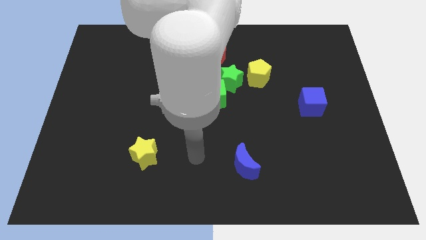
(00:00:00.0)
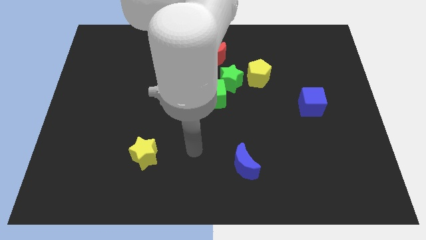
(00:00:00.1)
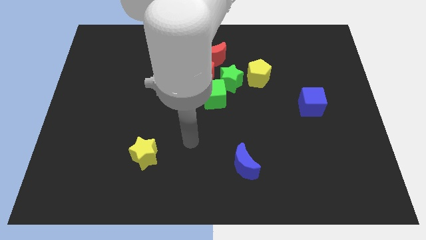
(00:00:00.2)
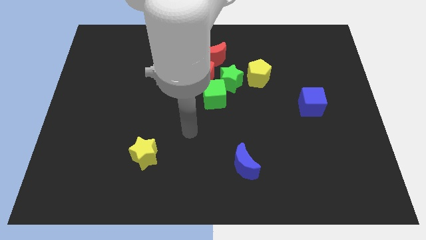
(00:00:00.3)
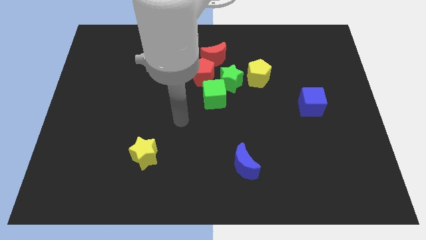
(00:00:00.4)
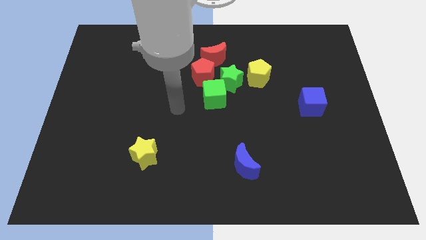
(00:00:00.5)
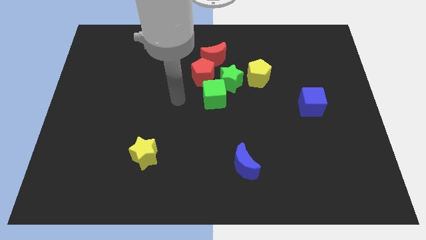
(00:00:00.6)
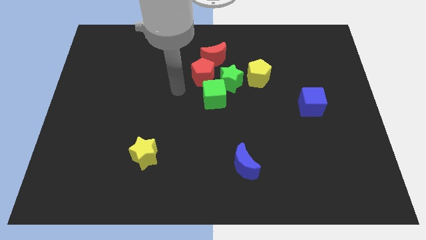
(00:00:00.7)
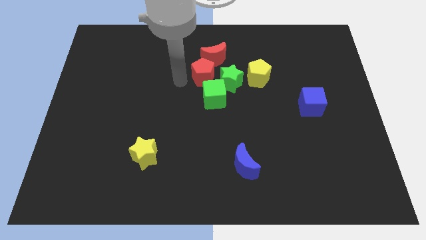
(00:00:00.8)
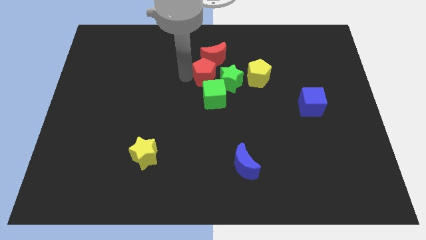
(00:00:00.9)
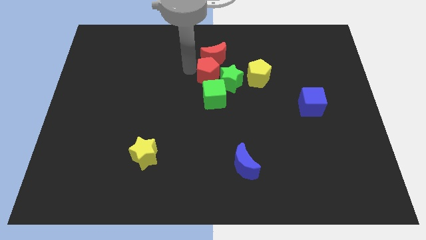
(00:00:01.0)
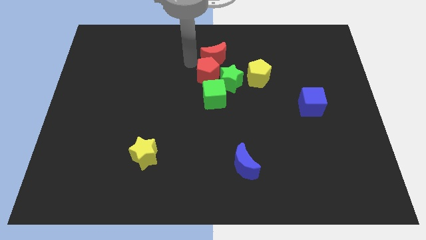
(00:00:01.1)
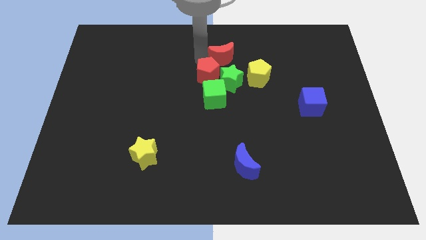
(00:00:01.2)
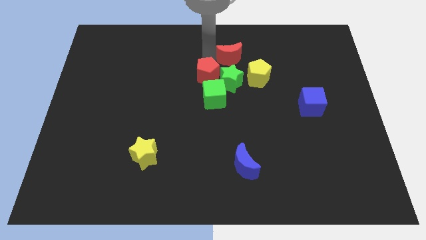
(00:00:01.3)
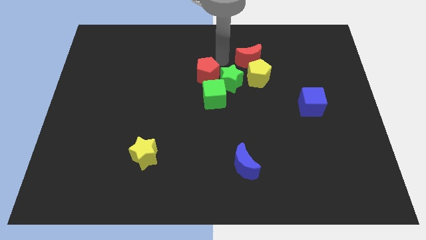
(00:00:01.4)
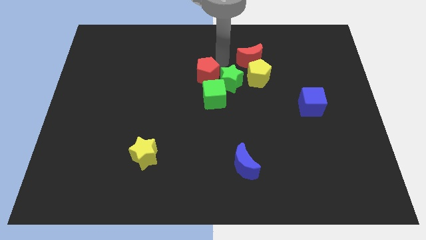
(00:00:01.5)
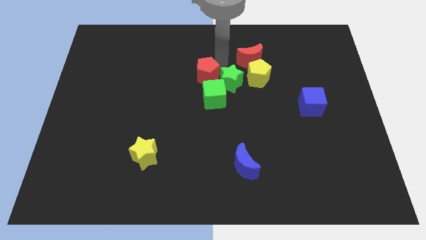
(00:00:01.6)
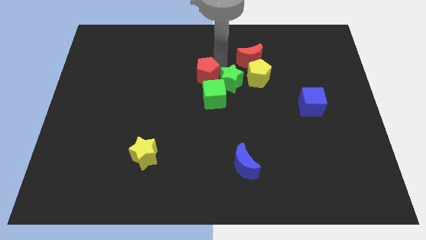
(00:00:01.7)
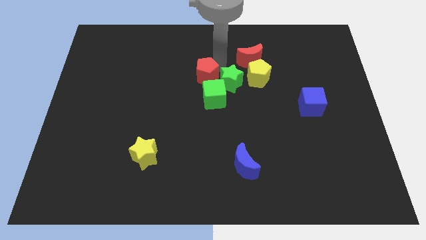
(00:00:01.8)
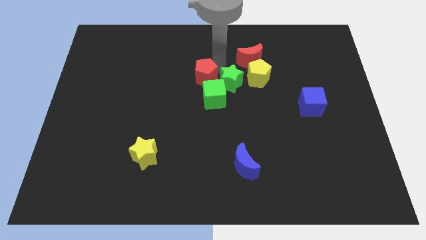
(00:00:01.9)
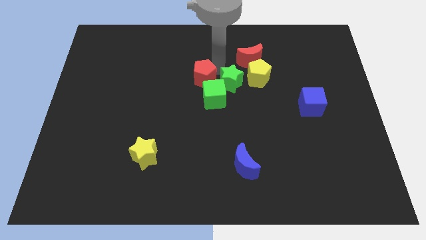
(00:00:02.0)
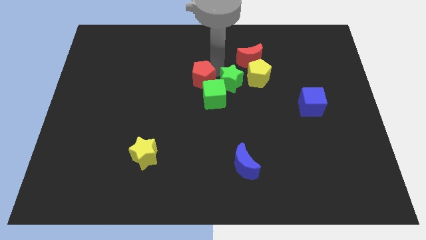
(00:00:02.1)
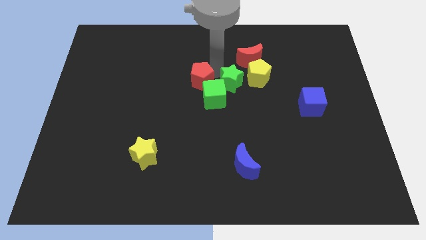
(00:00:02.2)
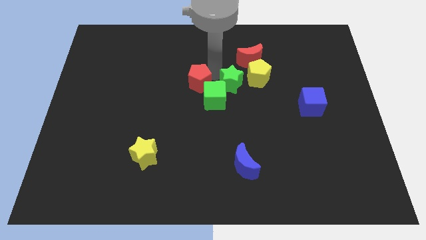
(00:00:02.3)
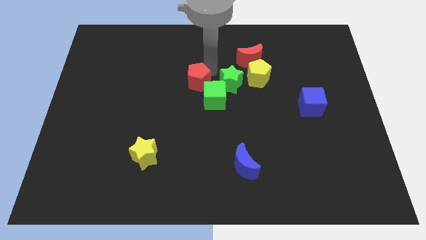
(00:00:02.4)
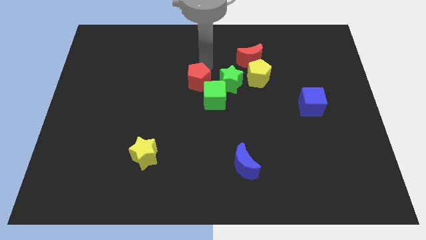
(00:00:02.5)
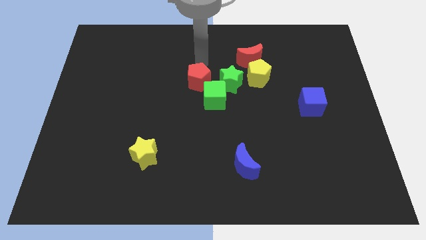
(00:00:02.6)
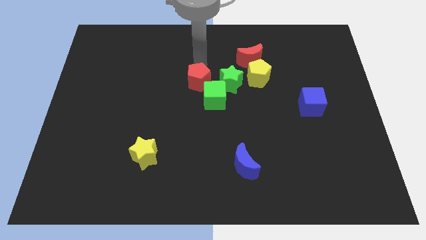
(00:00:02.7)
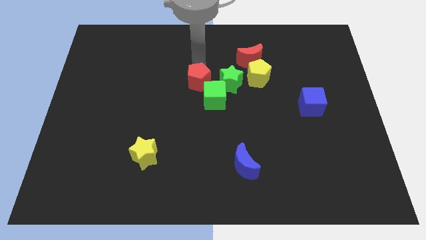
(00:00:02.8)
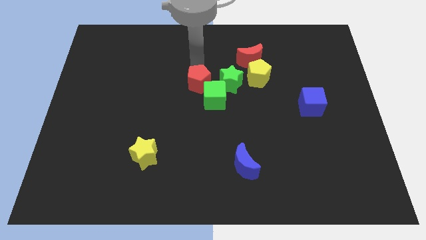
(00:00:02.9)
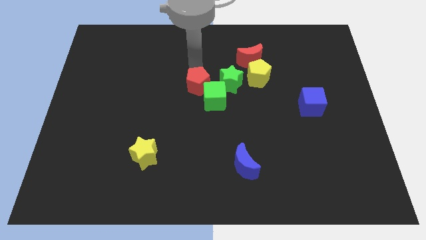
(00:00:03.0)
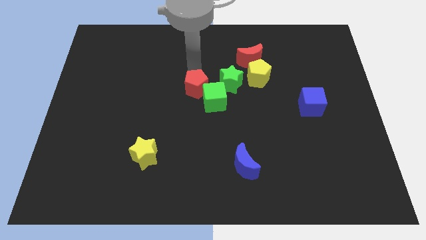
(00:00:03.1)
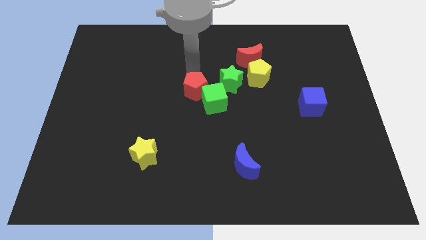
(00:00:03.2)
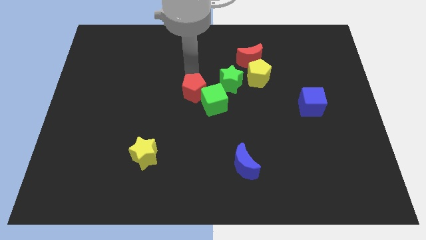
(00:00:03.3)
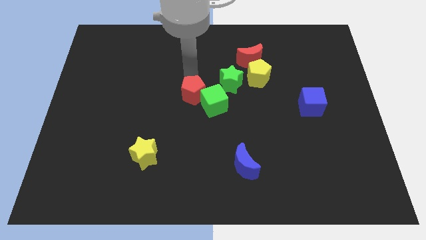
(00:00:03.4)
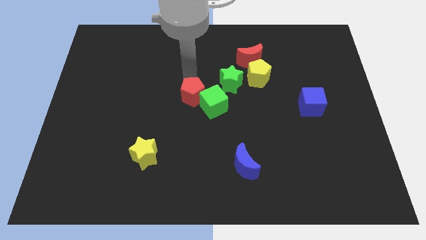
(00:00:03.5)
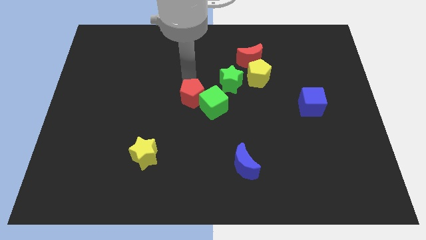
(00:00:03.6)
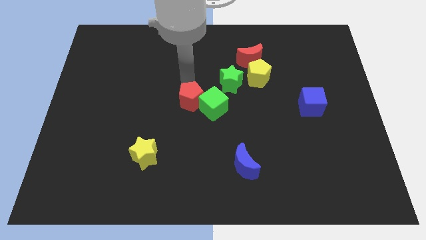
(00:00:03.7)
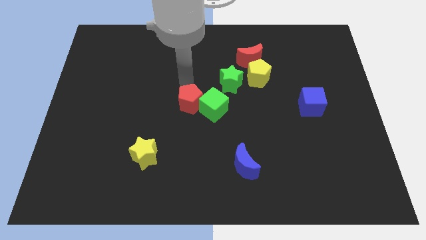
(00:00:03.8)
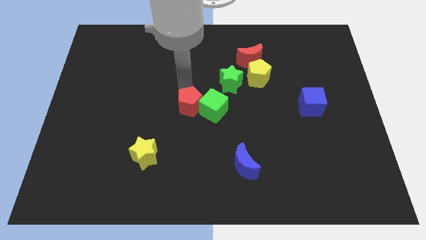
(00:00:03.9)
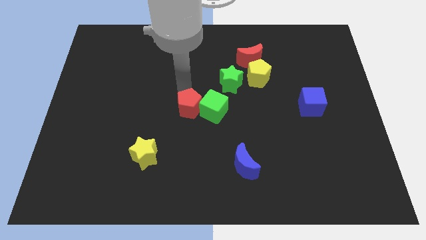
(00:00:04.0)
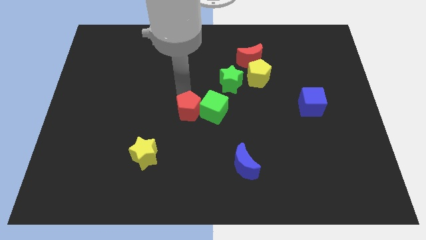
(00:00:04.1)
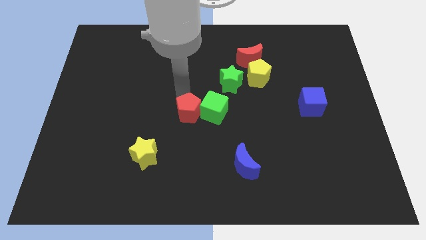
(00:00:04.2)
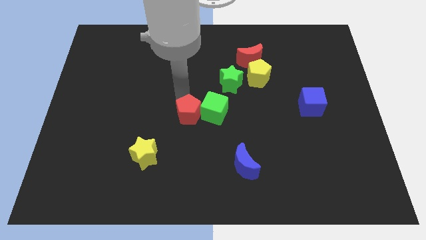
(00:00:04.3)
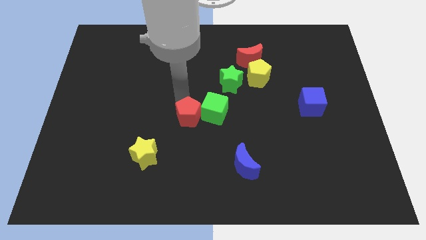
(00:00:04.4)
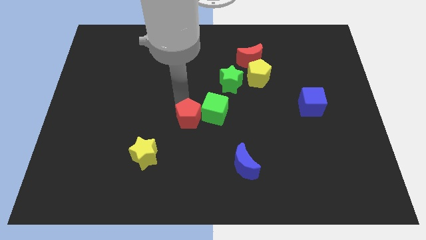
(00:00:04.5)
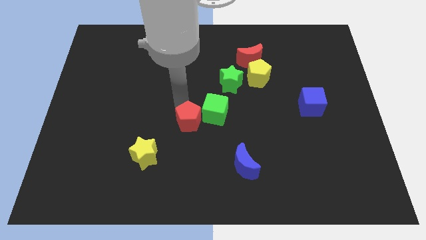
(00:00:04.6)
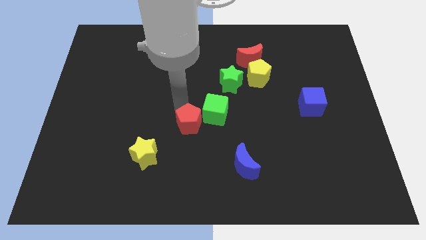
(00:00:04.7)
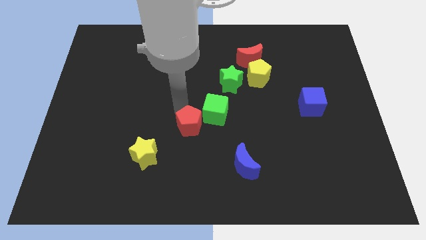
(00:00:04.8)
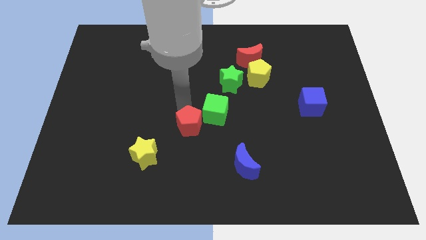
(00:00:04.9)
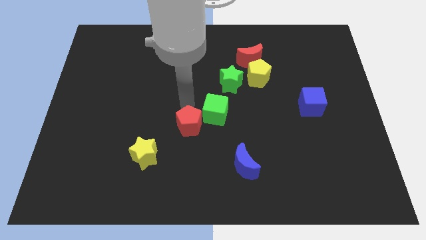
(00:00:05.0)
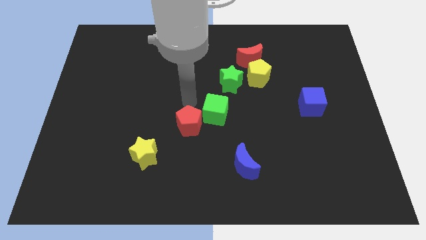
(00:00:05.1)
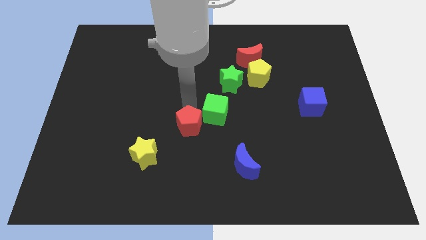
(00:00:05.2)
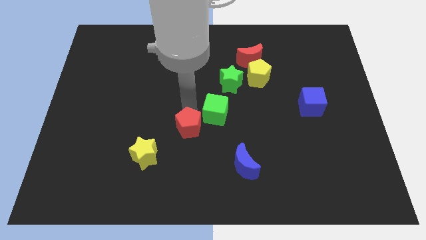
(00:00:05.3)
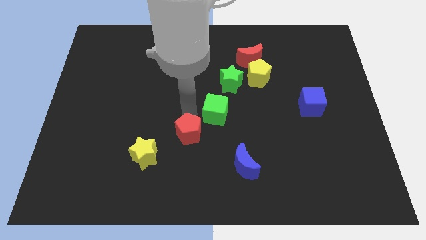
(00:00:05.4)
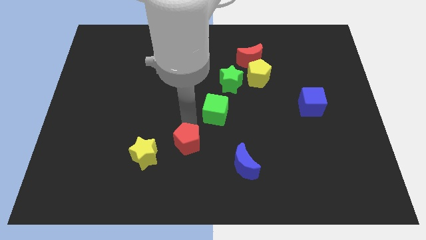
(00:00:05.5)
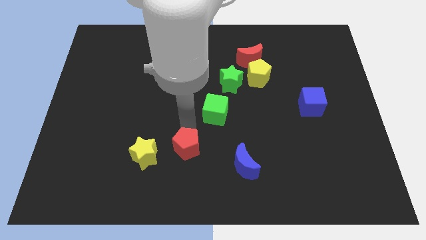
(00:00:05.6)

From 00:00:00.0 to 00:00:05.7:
push the red pentagon to the left side of the blue moon

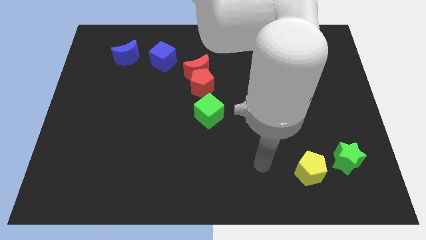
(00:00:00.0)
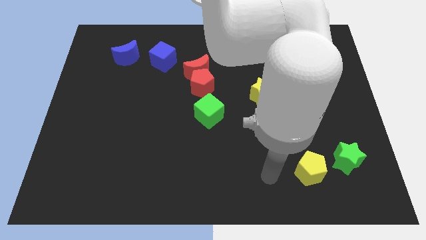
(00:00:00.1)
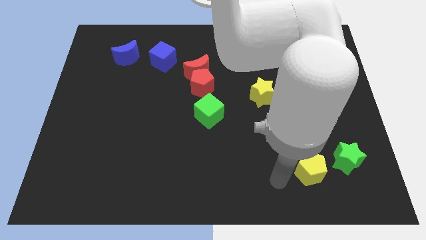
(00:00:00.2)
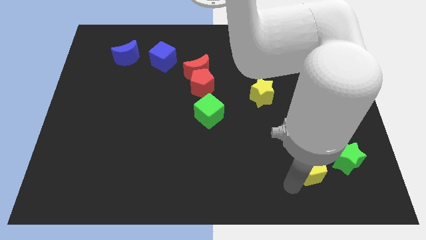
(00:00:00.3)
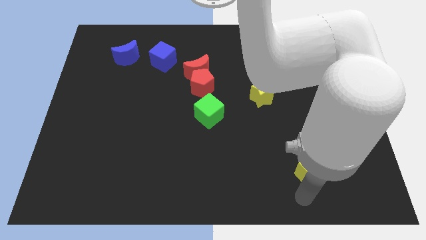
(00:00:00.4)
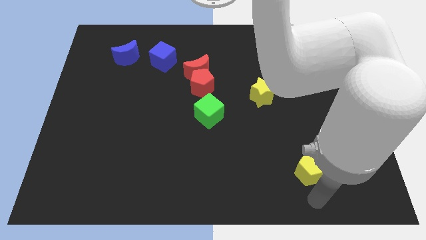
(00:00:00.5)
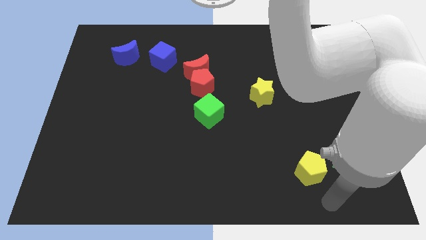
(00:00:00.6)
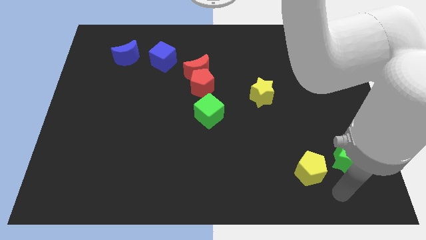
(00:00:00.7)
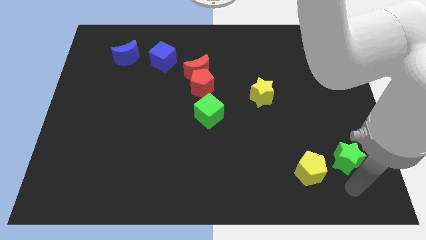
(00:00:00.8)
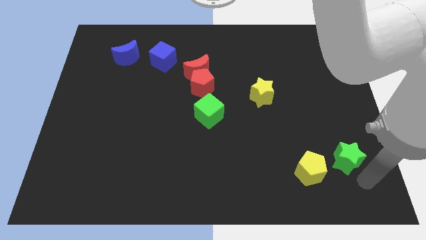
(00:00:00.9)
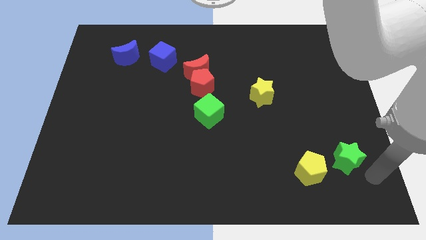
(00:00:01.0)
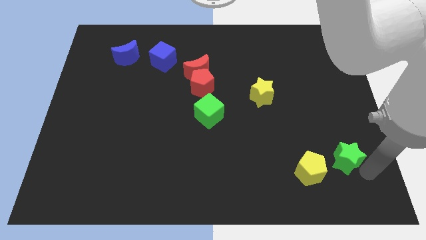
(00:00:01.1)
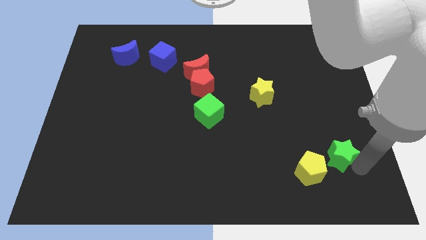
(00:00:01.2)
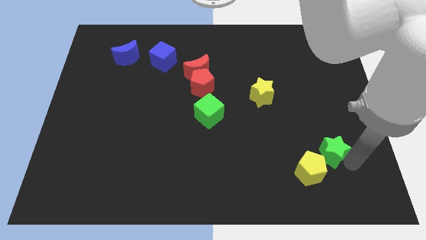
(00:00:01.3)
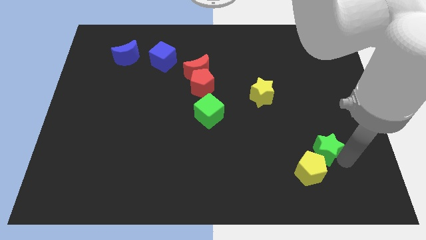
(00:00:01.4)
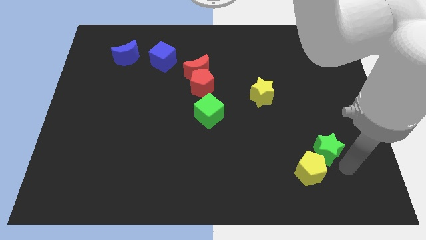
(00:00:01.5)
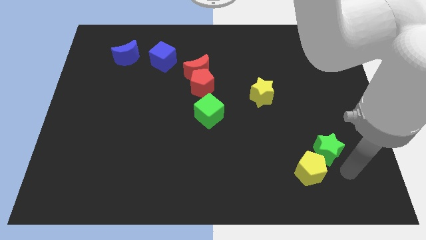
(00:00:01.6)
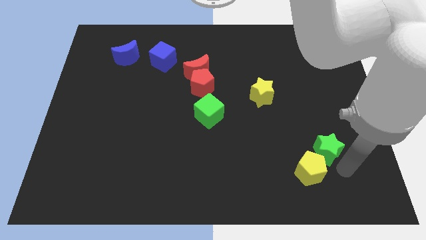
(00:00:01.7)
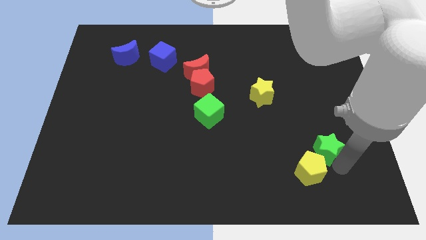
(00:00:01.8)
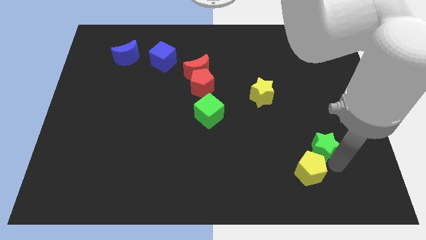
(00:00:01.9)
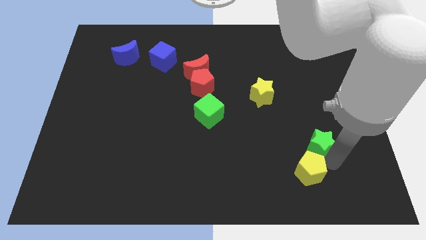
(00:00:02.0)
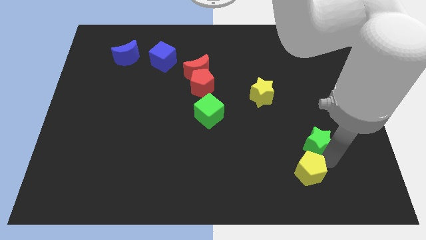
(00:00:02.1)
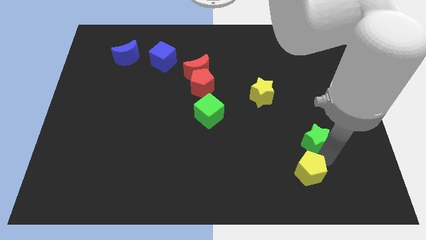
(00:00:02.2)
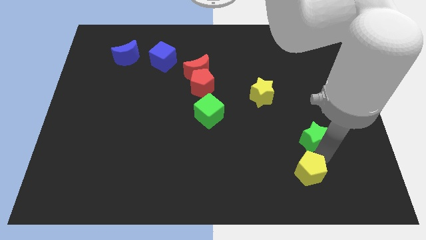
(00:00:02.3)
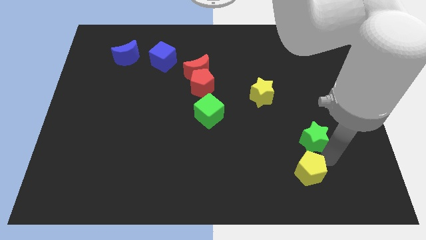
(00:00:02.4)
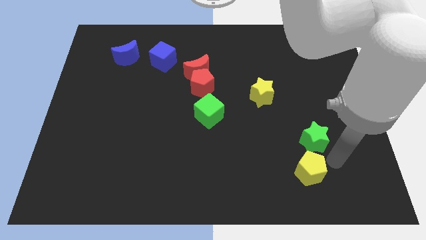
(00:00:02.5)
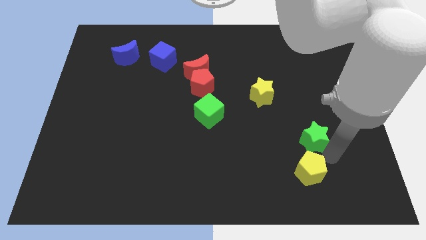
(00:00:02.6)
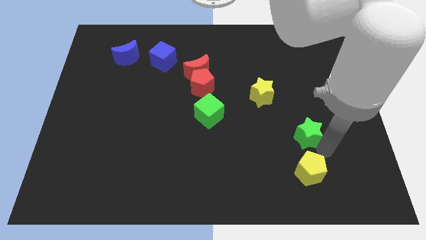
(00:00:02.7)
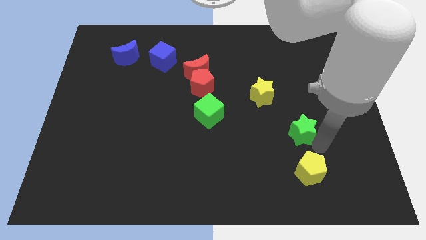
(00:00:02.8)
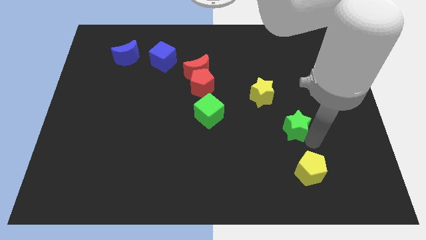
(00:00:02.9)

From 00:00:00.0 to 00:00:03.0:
push the green star to the bottom right side of the yellow star
